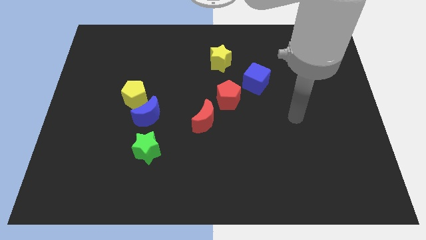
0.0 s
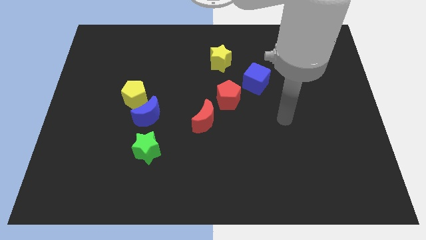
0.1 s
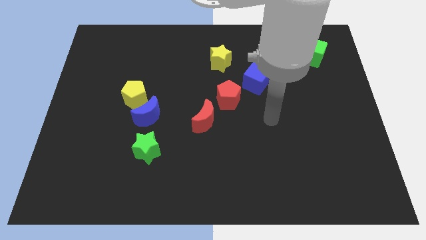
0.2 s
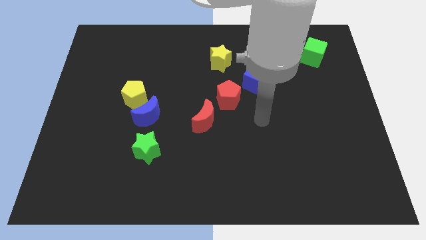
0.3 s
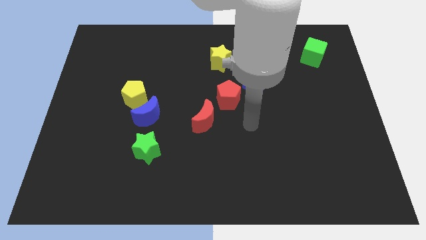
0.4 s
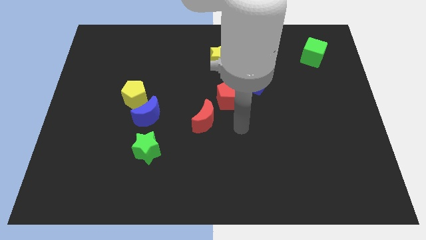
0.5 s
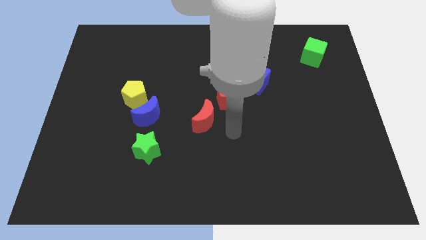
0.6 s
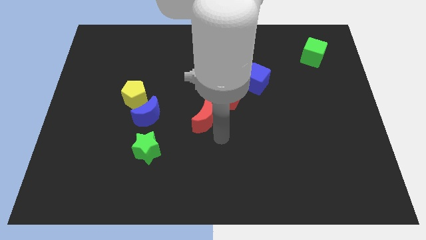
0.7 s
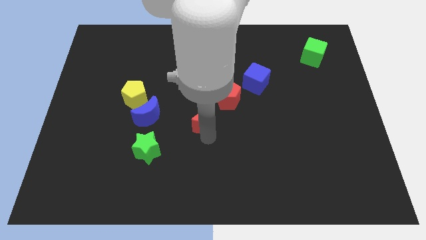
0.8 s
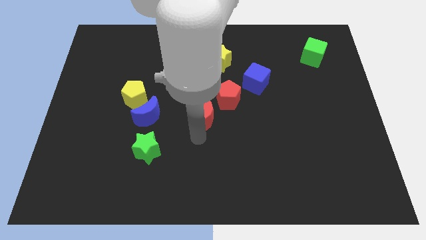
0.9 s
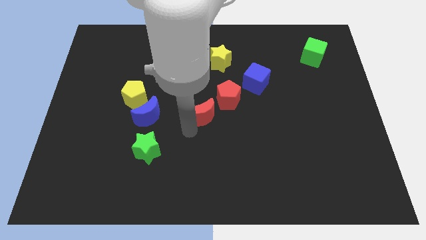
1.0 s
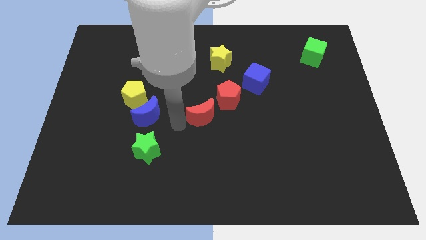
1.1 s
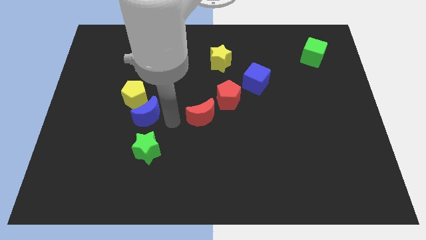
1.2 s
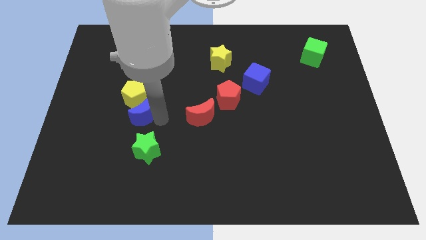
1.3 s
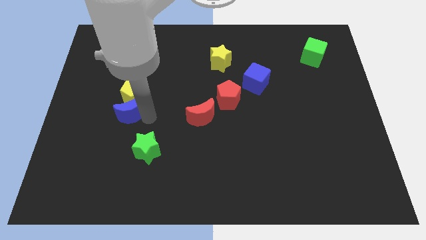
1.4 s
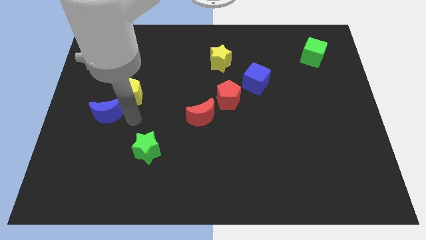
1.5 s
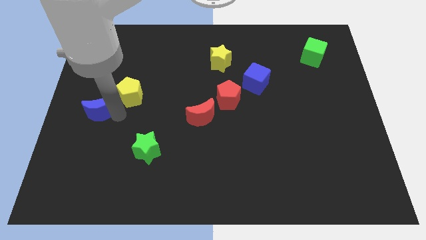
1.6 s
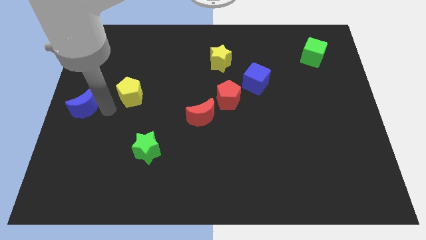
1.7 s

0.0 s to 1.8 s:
separate the yellow pentagon from the blue moon

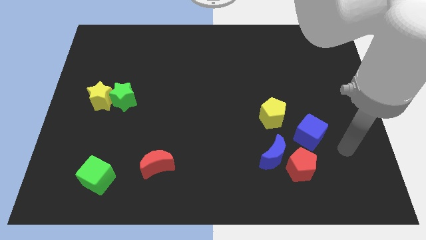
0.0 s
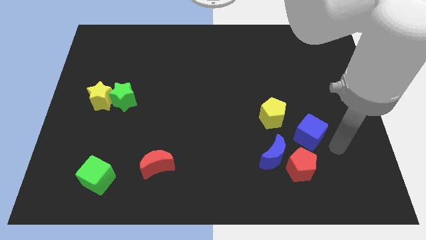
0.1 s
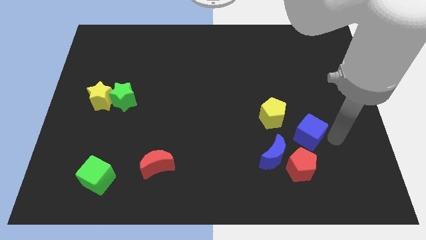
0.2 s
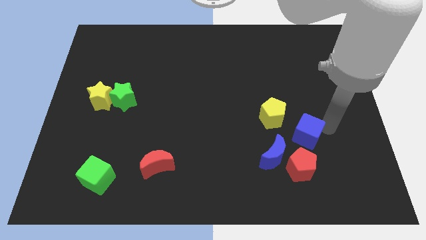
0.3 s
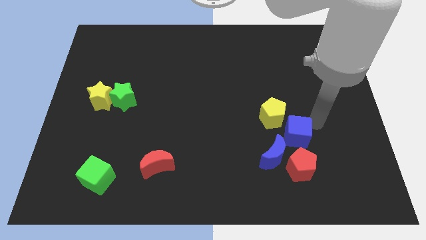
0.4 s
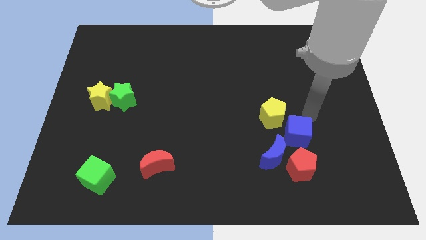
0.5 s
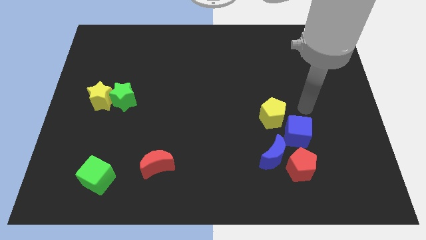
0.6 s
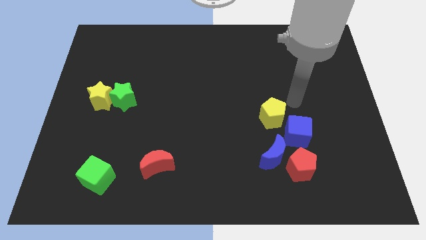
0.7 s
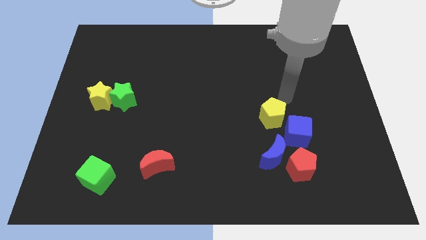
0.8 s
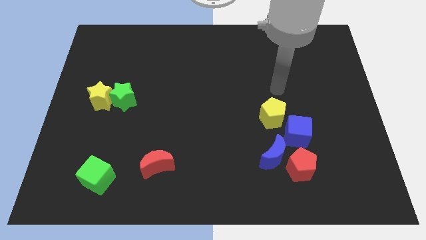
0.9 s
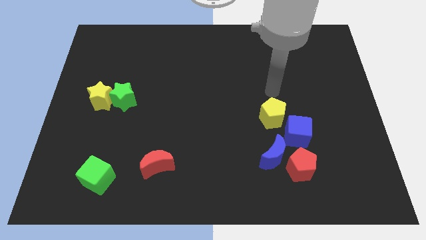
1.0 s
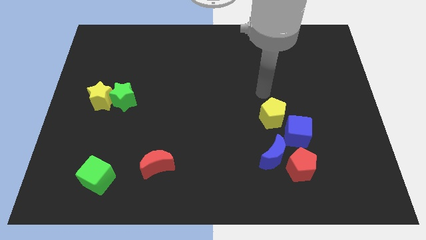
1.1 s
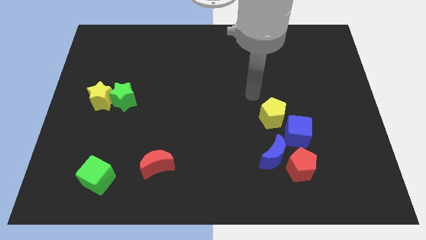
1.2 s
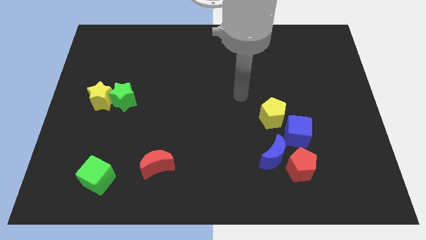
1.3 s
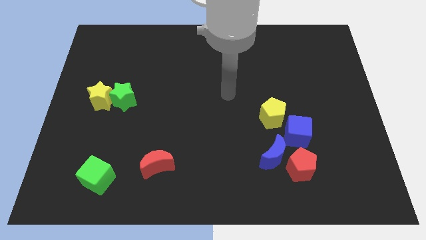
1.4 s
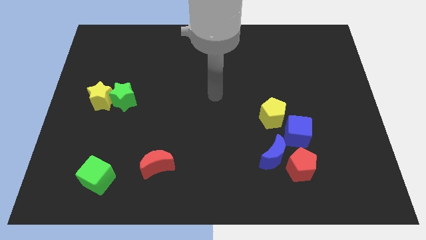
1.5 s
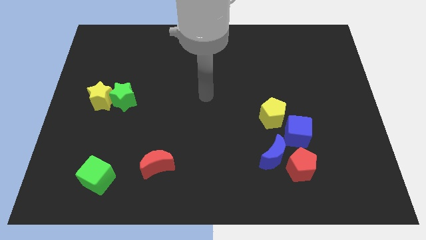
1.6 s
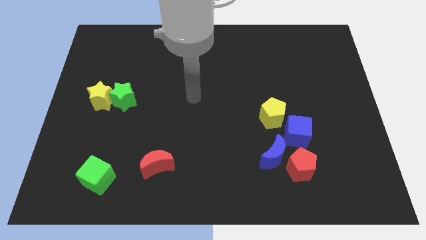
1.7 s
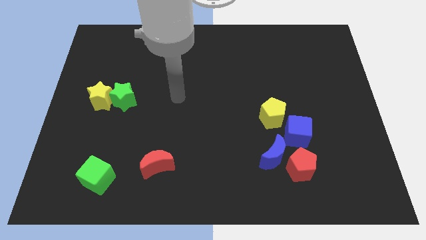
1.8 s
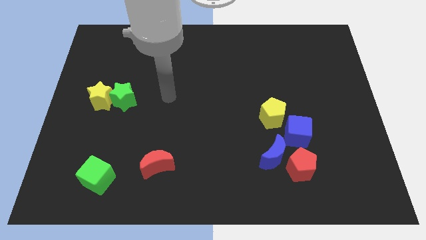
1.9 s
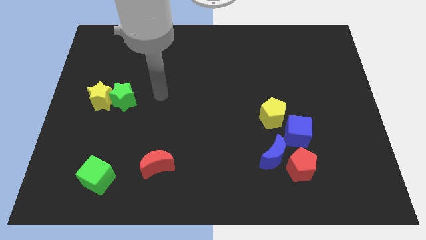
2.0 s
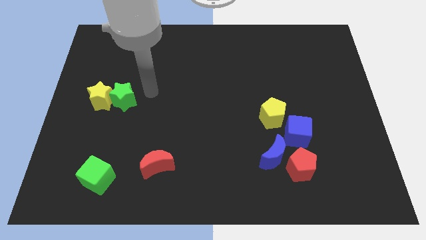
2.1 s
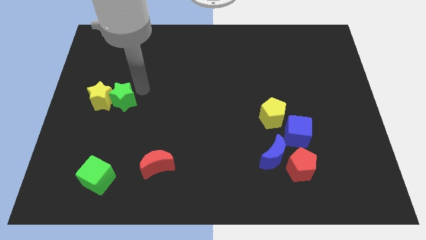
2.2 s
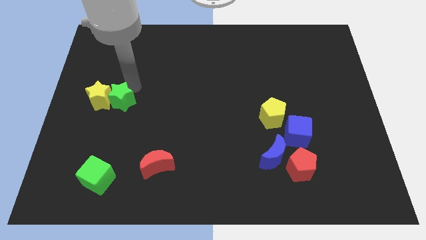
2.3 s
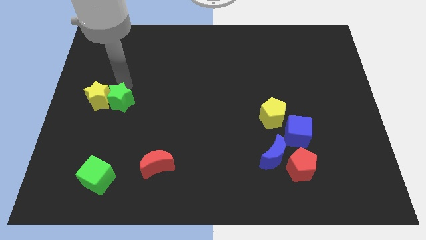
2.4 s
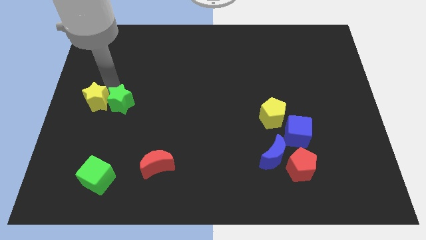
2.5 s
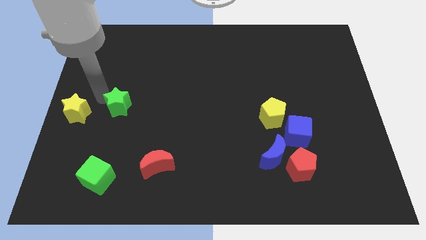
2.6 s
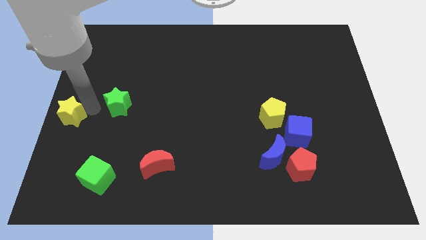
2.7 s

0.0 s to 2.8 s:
pull the green star apart from the yellow star

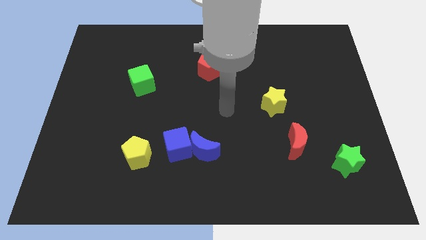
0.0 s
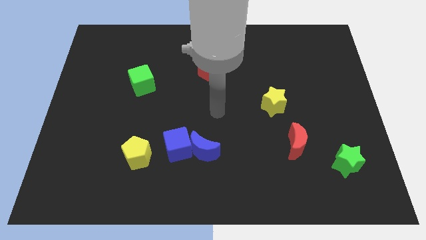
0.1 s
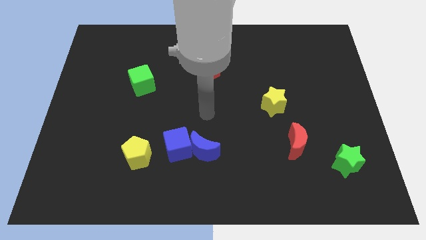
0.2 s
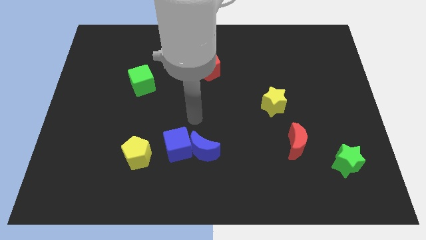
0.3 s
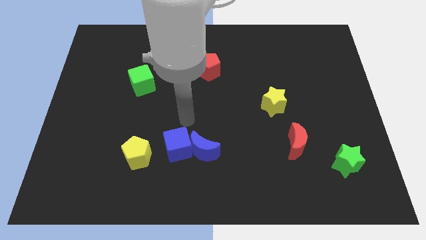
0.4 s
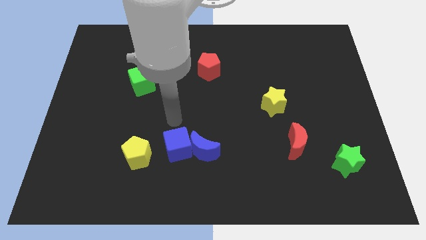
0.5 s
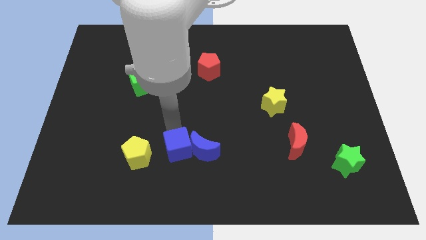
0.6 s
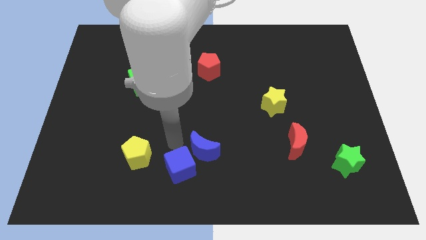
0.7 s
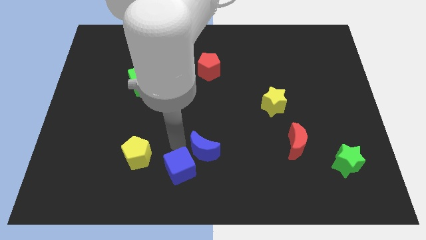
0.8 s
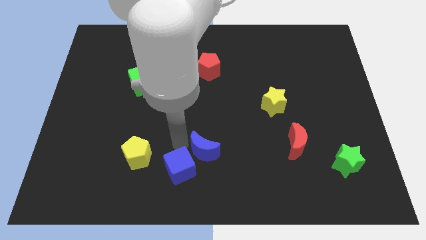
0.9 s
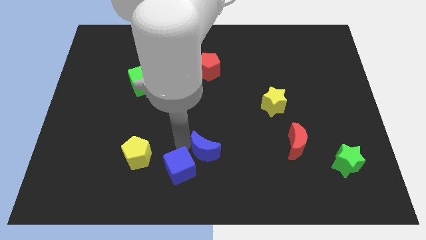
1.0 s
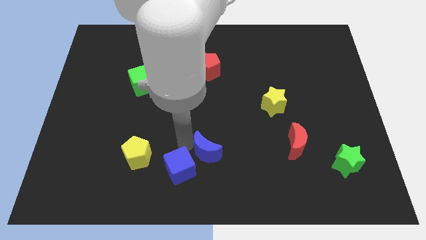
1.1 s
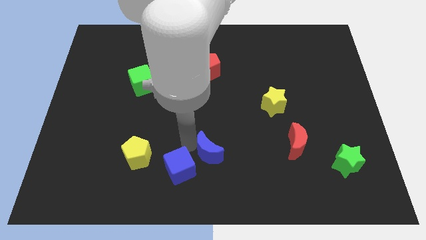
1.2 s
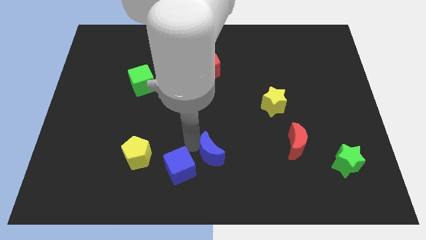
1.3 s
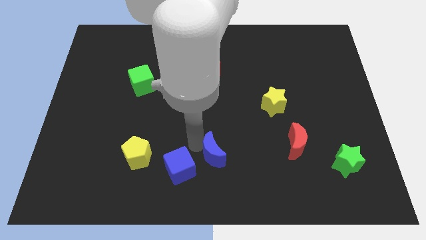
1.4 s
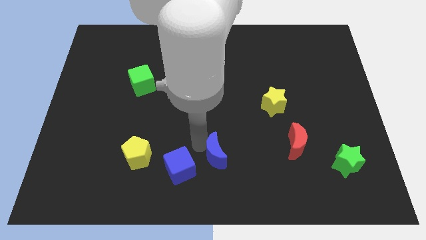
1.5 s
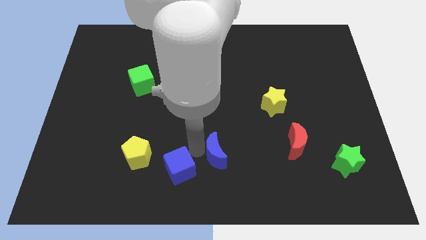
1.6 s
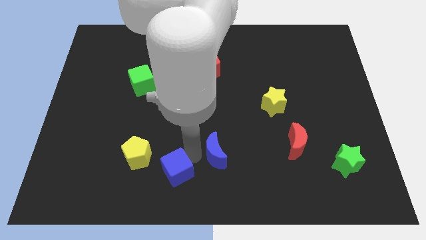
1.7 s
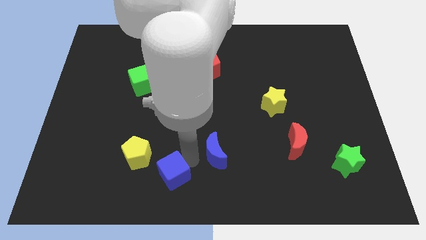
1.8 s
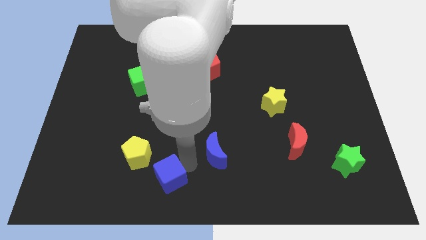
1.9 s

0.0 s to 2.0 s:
move the blue moon away from the blue cube

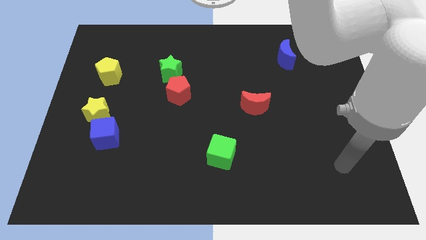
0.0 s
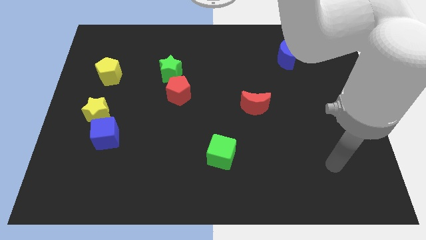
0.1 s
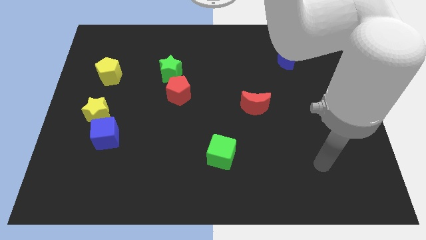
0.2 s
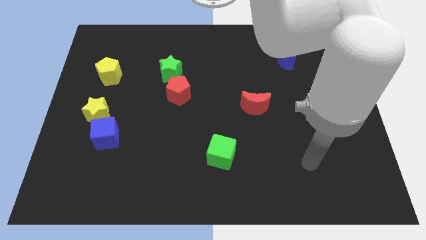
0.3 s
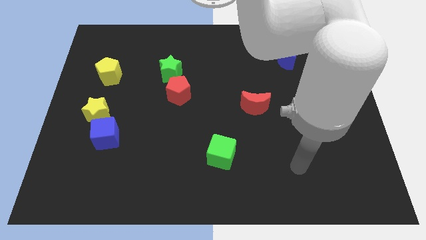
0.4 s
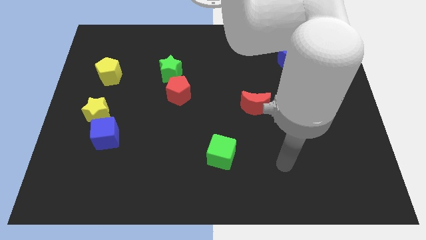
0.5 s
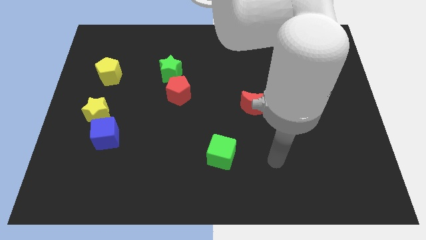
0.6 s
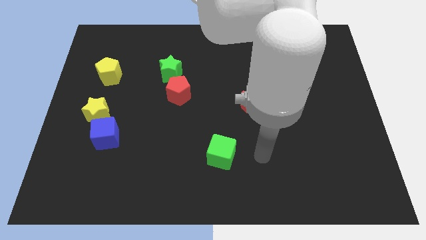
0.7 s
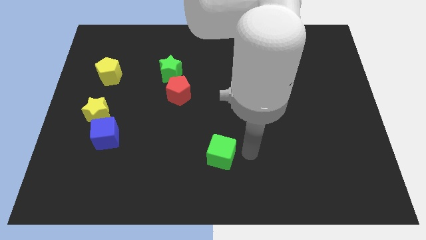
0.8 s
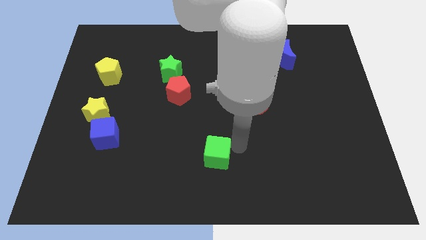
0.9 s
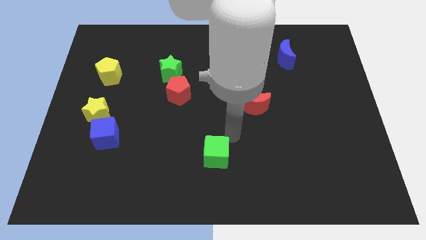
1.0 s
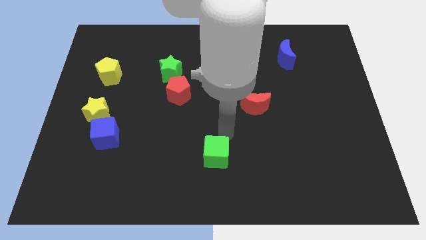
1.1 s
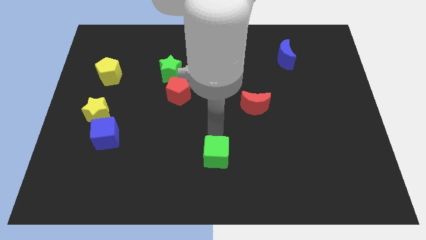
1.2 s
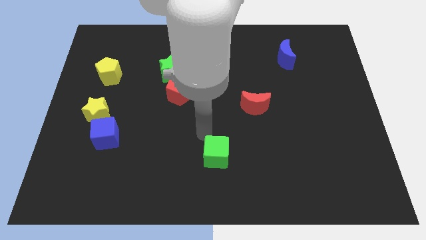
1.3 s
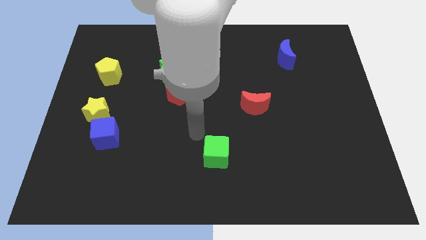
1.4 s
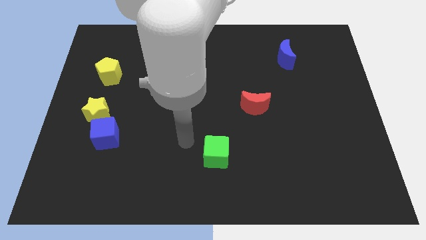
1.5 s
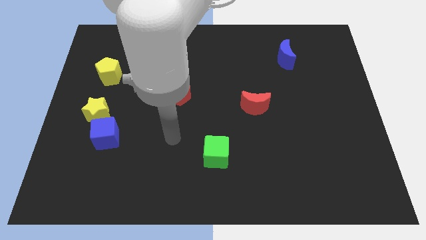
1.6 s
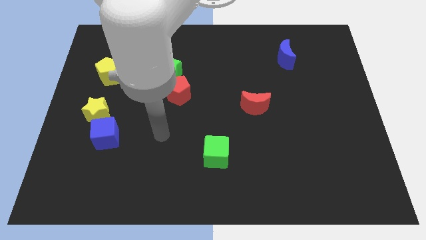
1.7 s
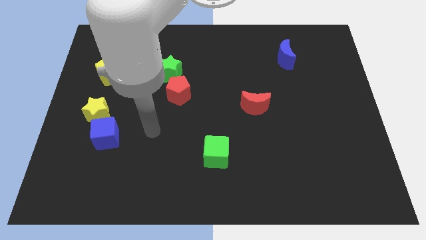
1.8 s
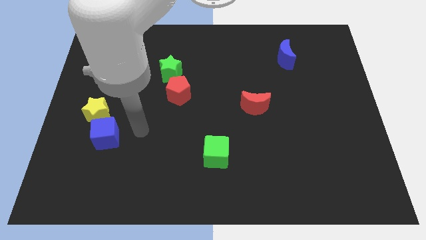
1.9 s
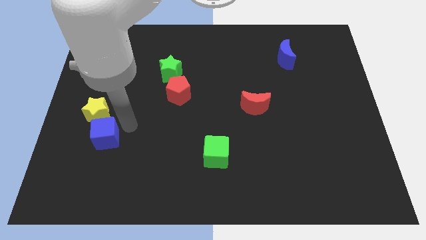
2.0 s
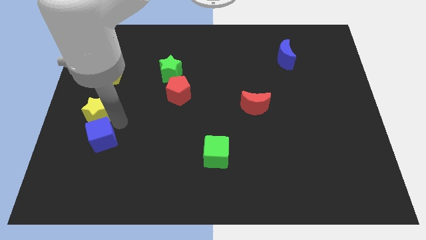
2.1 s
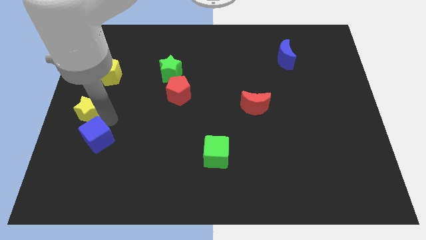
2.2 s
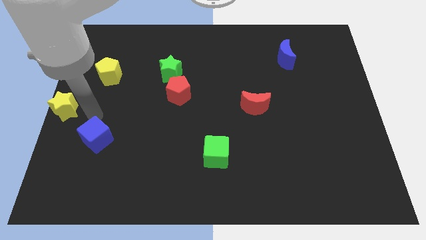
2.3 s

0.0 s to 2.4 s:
pull the blue cube apart from the yellow star
